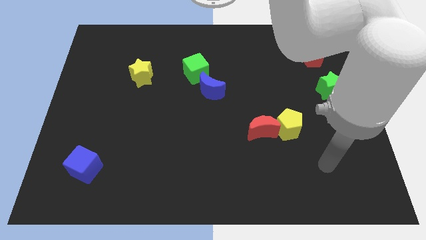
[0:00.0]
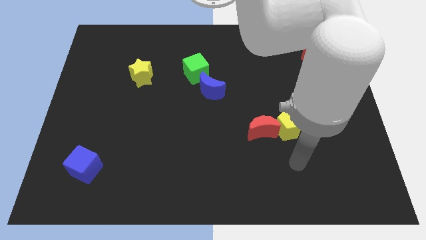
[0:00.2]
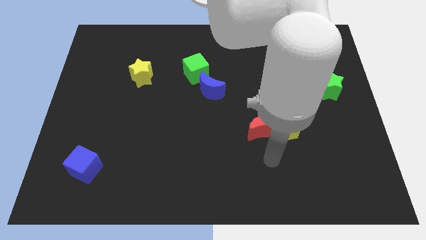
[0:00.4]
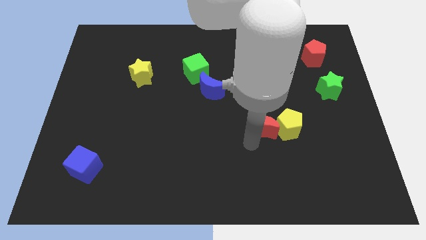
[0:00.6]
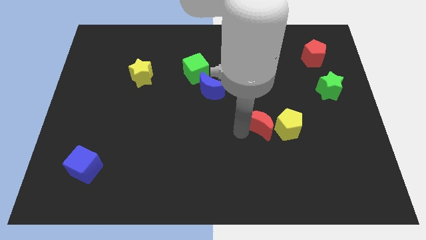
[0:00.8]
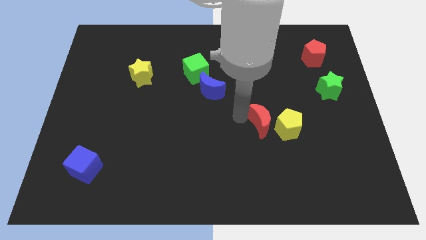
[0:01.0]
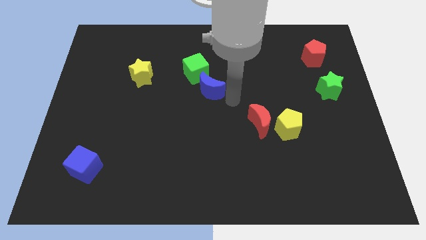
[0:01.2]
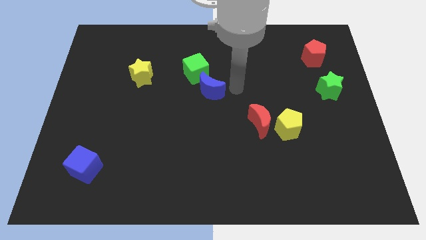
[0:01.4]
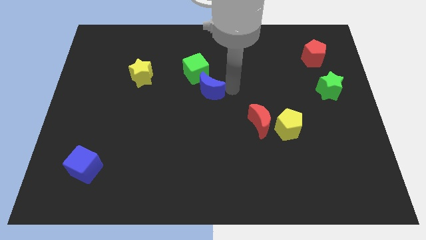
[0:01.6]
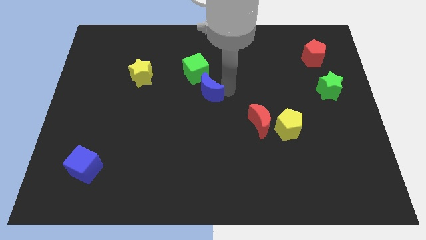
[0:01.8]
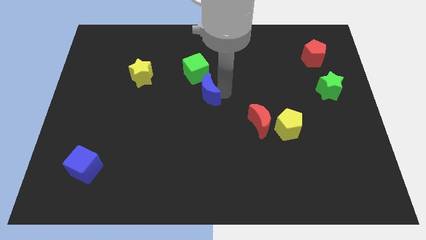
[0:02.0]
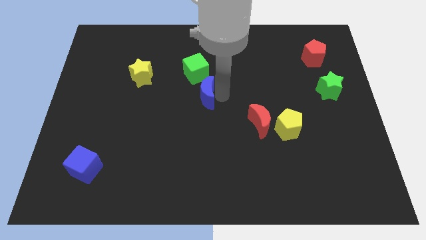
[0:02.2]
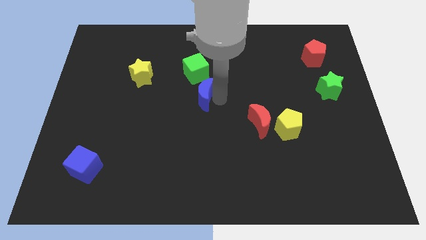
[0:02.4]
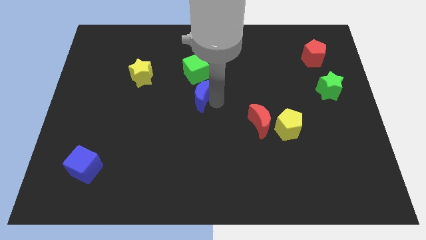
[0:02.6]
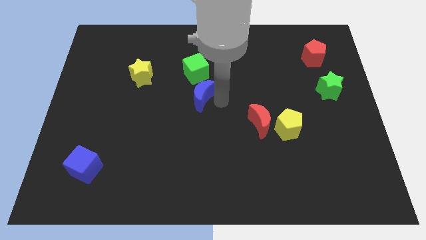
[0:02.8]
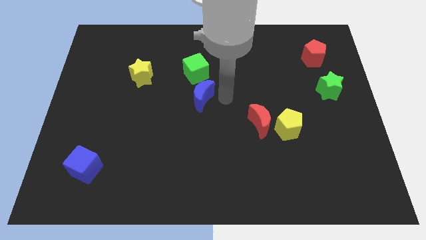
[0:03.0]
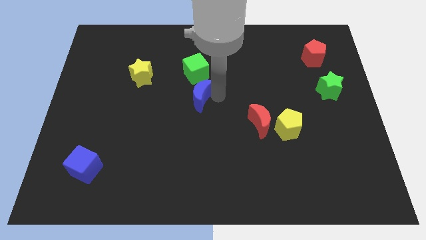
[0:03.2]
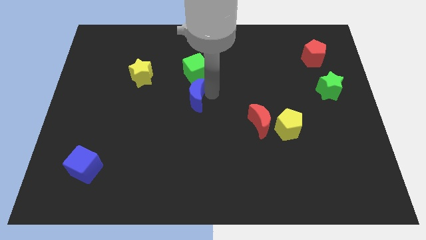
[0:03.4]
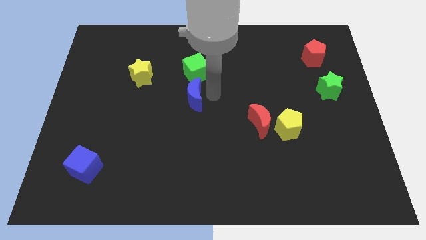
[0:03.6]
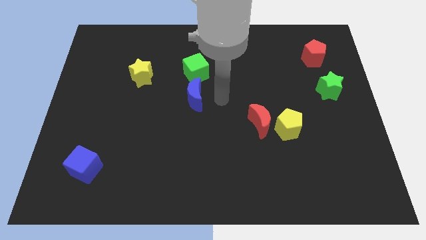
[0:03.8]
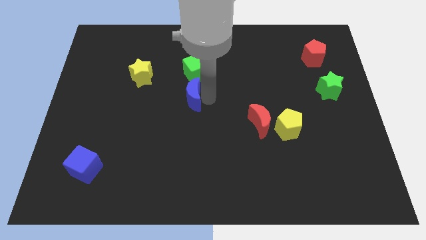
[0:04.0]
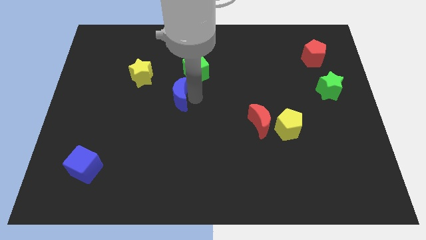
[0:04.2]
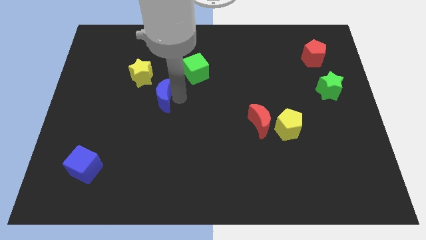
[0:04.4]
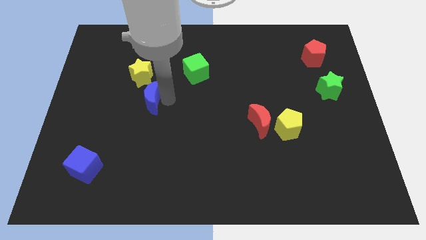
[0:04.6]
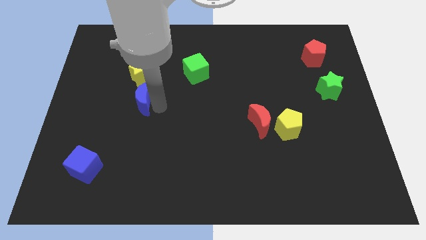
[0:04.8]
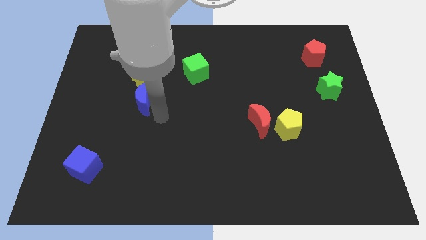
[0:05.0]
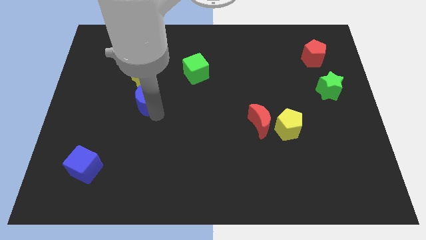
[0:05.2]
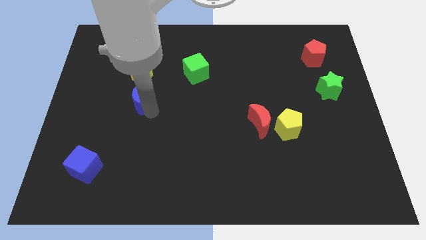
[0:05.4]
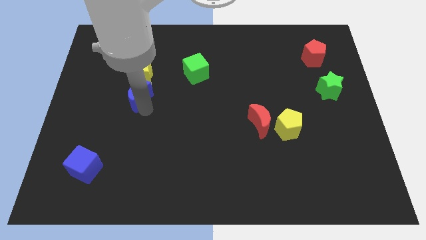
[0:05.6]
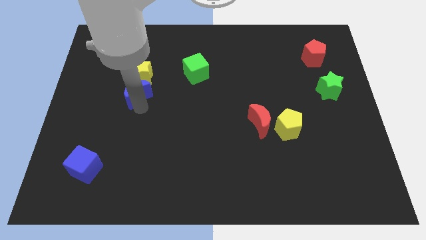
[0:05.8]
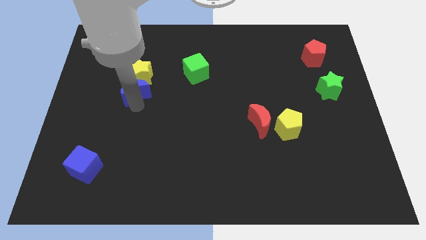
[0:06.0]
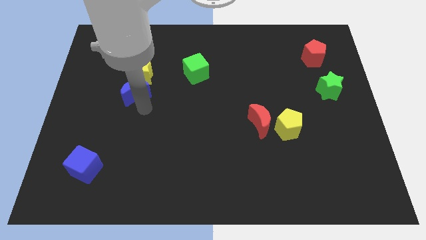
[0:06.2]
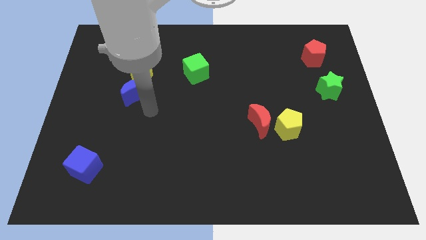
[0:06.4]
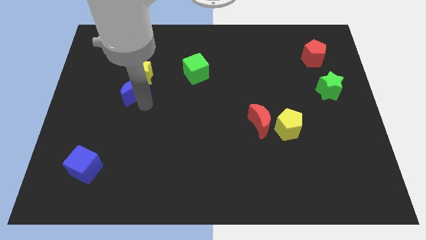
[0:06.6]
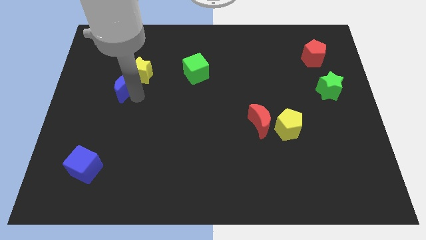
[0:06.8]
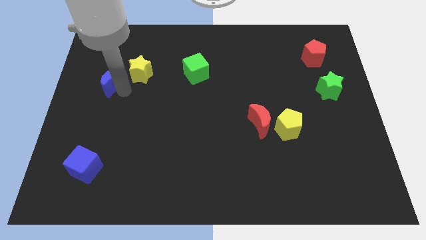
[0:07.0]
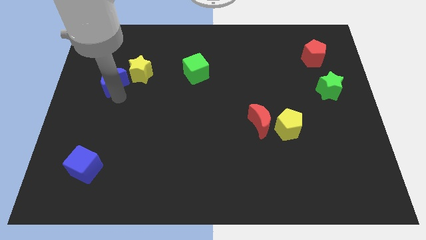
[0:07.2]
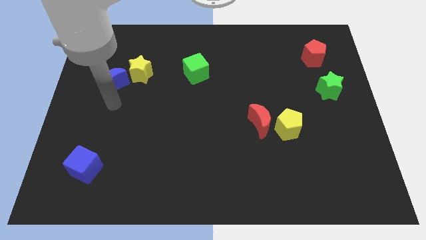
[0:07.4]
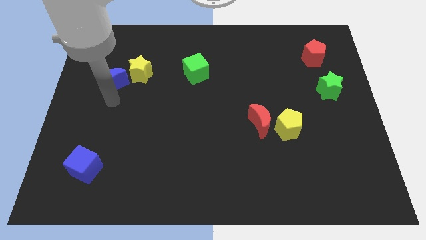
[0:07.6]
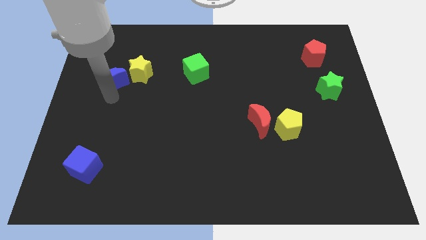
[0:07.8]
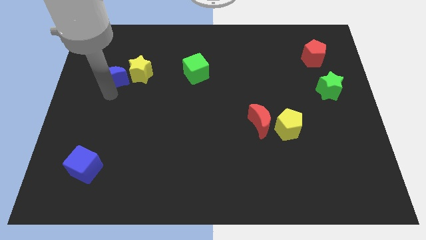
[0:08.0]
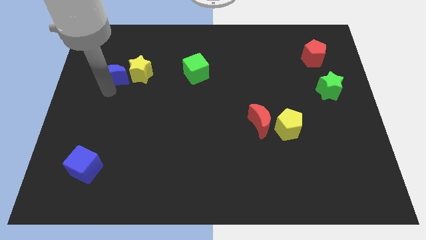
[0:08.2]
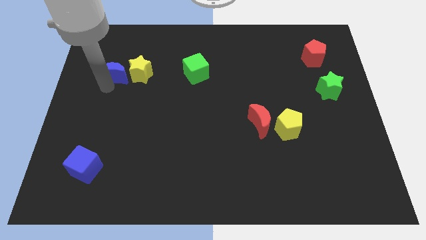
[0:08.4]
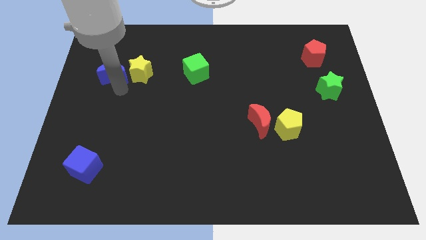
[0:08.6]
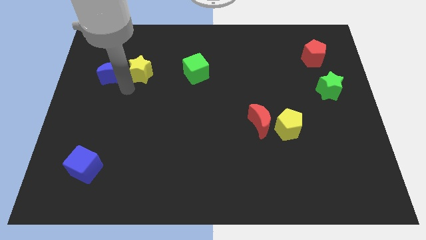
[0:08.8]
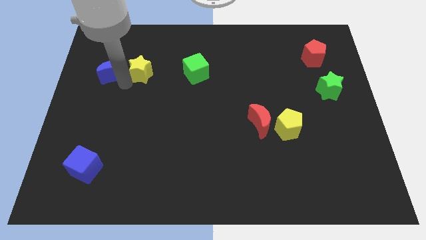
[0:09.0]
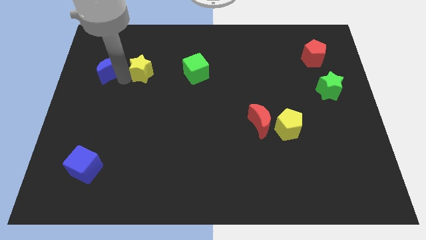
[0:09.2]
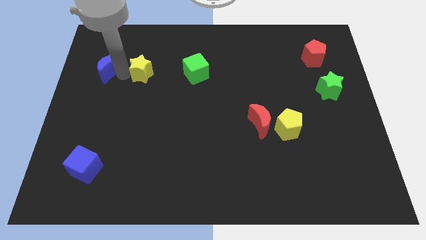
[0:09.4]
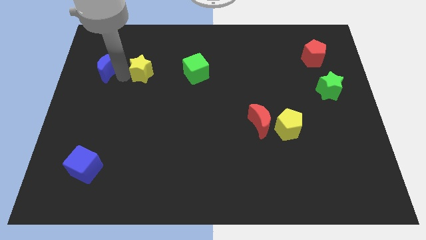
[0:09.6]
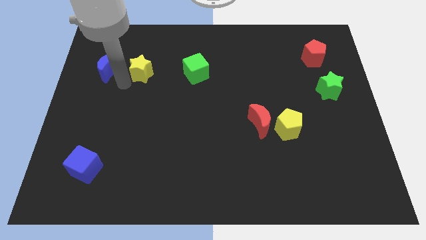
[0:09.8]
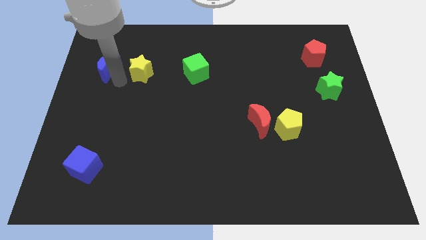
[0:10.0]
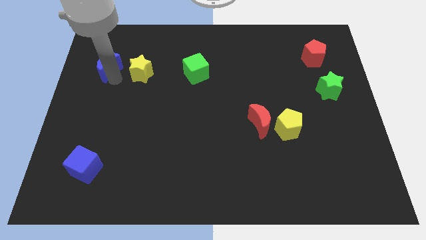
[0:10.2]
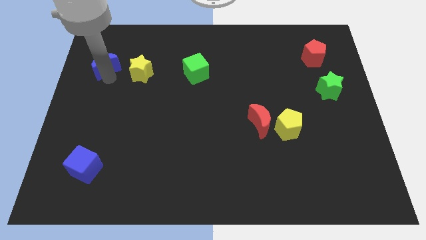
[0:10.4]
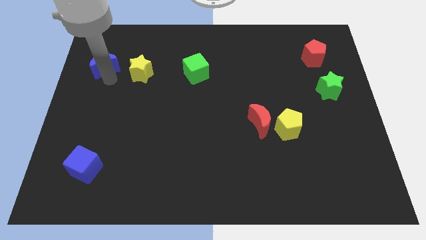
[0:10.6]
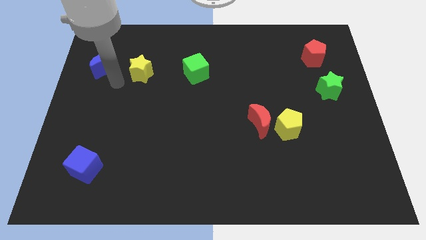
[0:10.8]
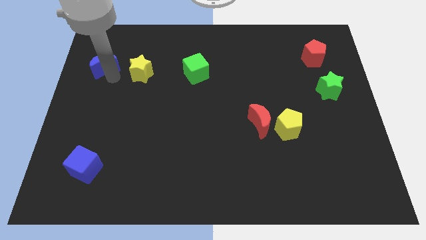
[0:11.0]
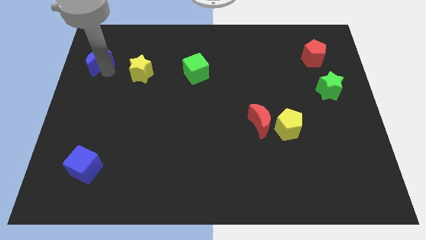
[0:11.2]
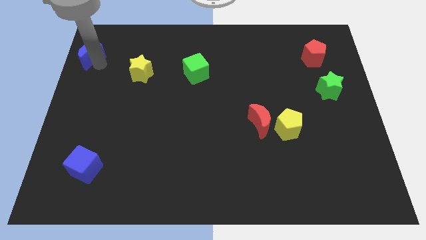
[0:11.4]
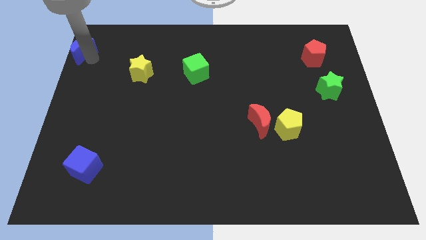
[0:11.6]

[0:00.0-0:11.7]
push the blue moon to the upper left corner
